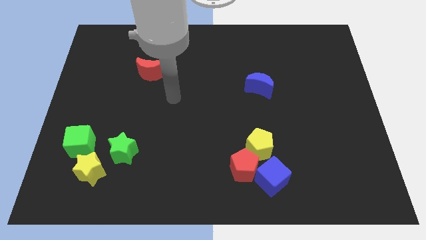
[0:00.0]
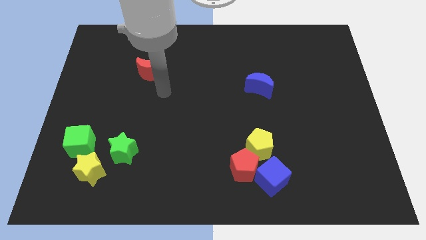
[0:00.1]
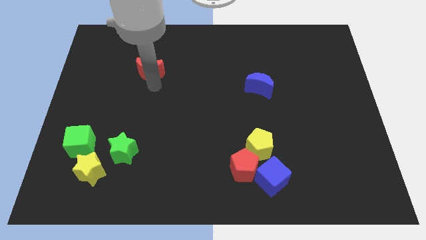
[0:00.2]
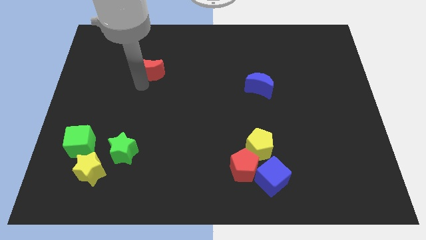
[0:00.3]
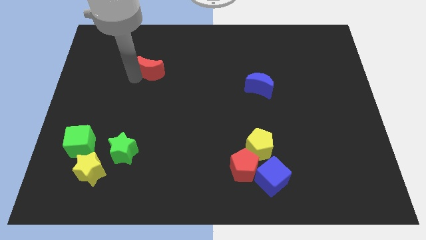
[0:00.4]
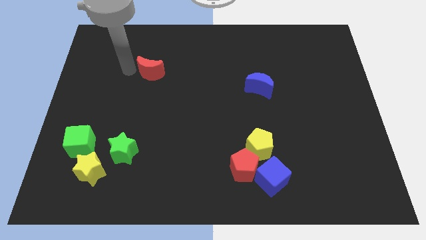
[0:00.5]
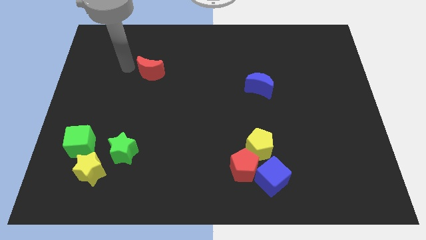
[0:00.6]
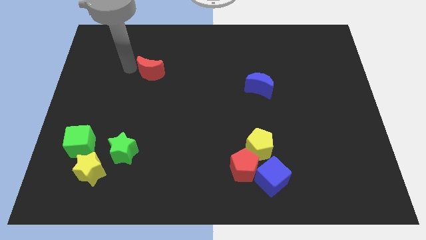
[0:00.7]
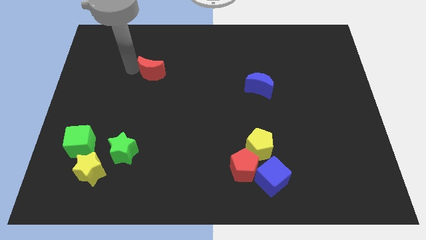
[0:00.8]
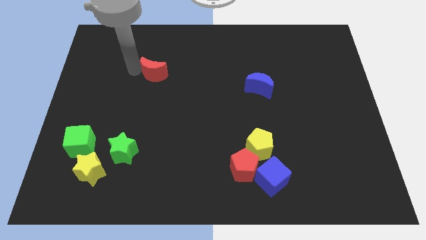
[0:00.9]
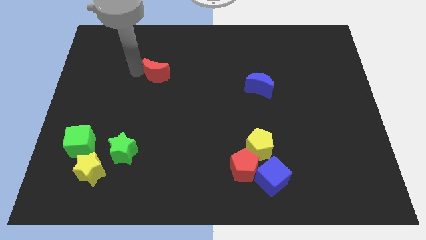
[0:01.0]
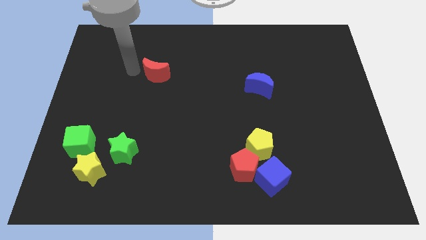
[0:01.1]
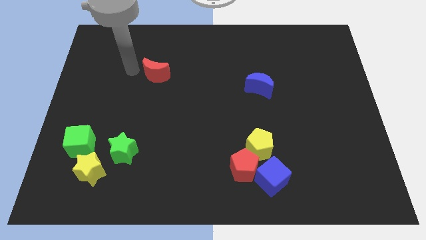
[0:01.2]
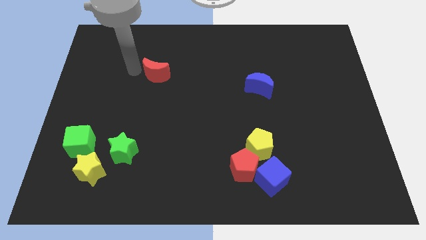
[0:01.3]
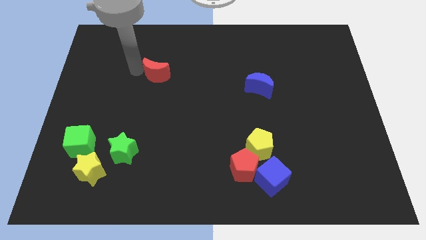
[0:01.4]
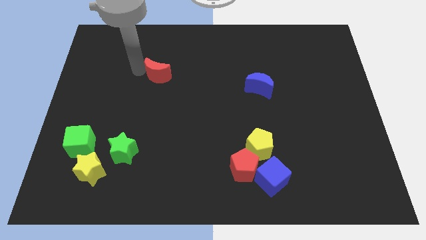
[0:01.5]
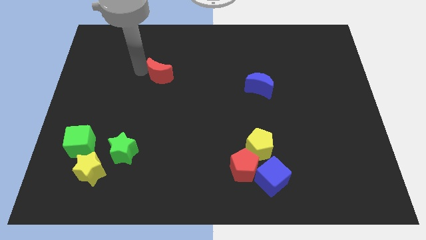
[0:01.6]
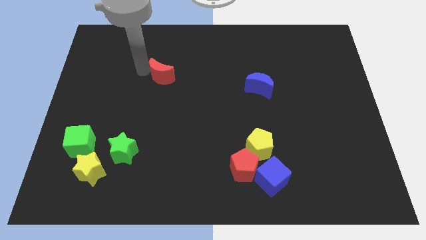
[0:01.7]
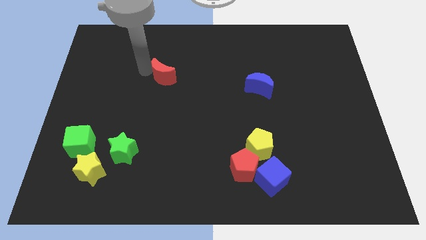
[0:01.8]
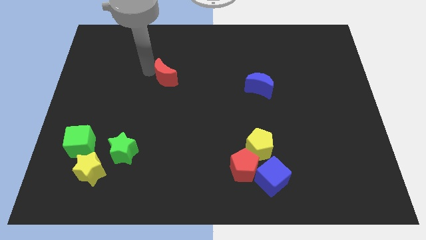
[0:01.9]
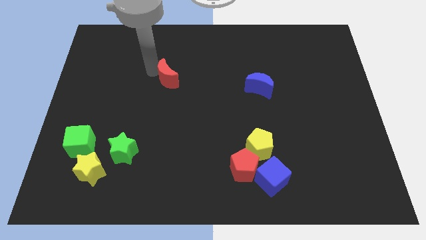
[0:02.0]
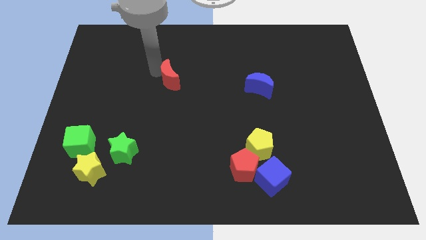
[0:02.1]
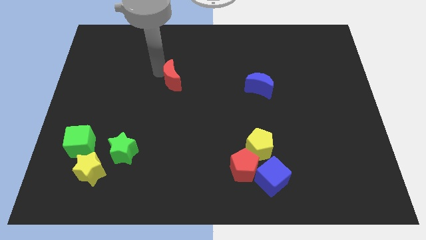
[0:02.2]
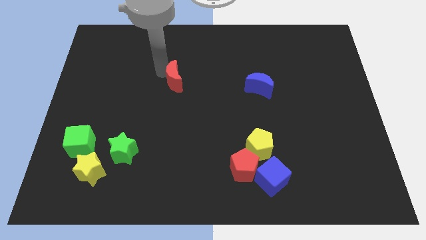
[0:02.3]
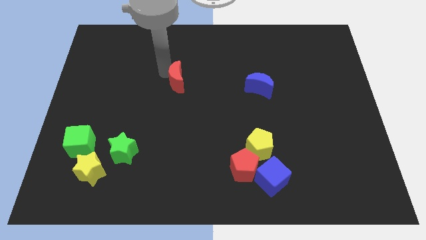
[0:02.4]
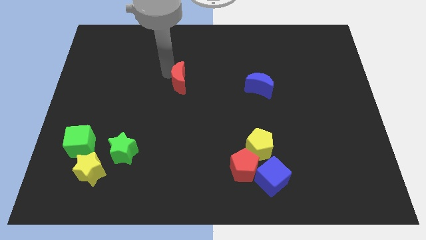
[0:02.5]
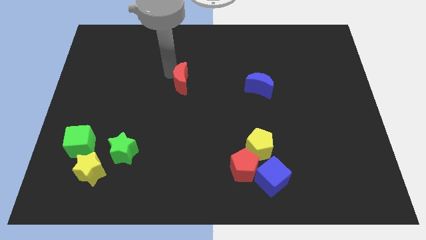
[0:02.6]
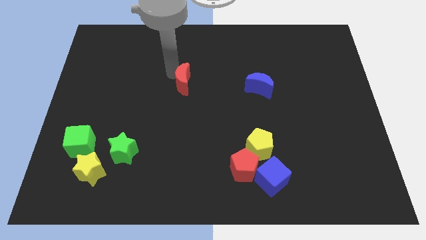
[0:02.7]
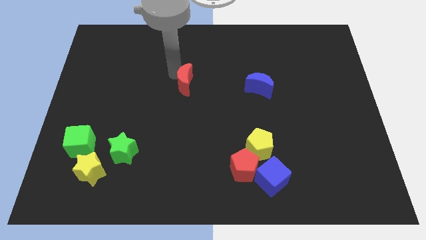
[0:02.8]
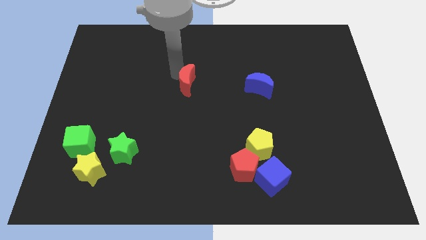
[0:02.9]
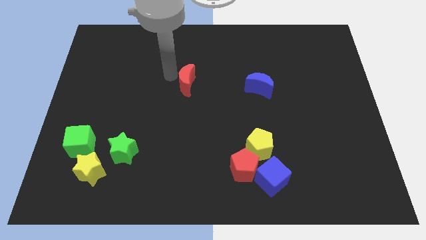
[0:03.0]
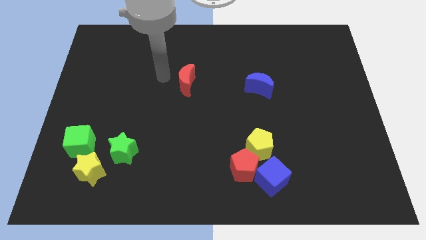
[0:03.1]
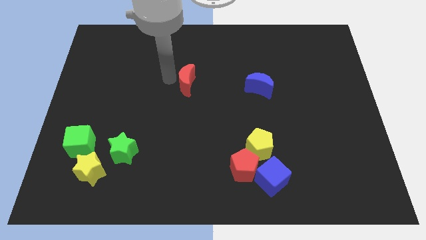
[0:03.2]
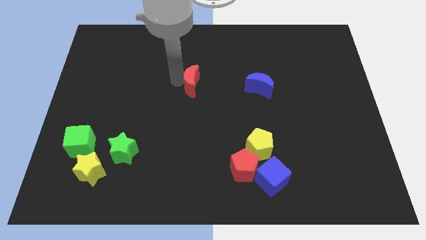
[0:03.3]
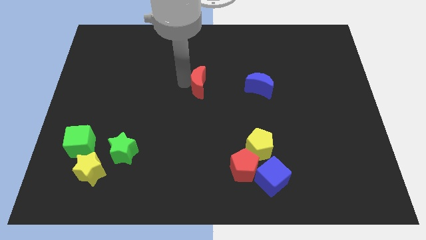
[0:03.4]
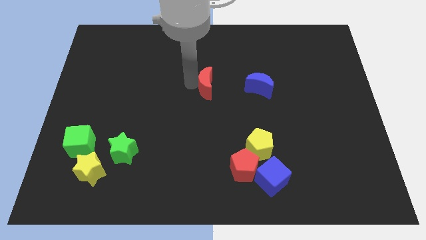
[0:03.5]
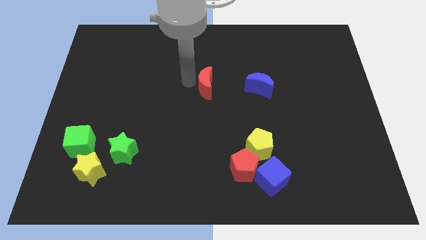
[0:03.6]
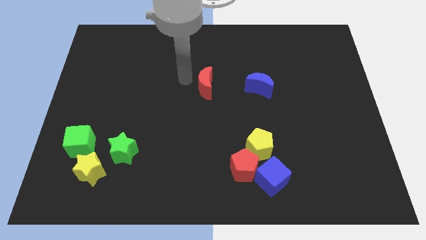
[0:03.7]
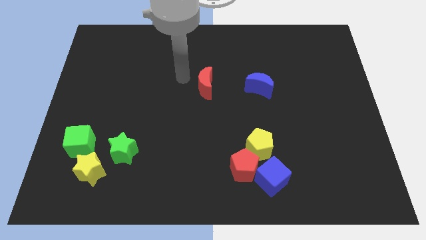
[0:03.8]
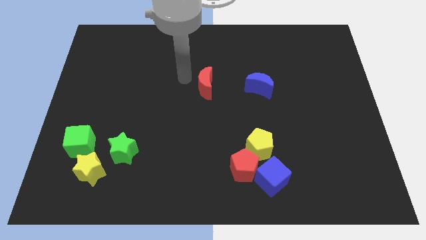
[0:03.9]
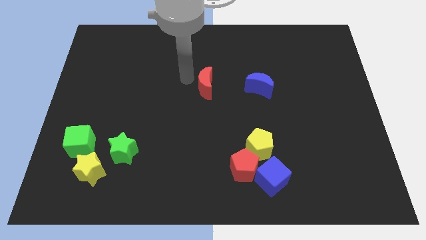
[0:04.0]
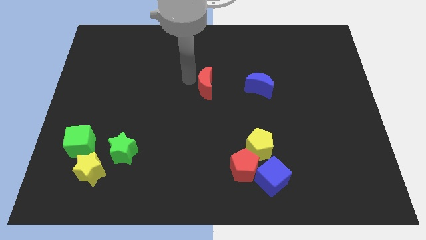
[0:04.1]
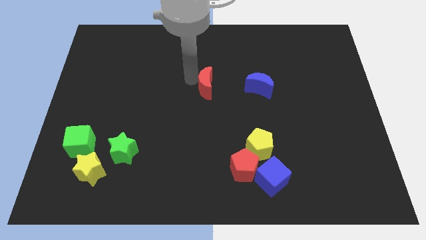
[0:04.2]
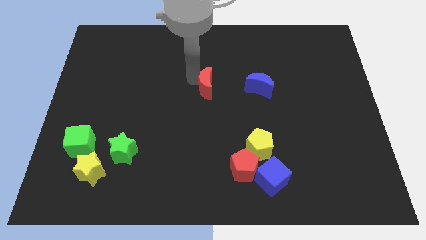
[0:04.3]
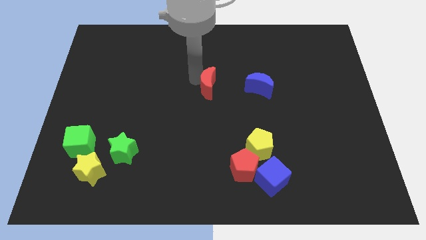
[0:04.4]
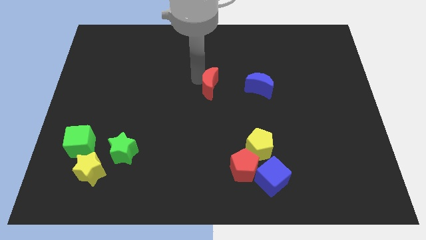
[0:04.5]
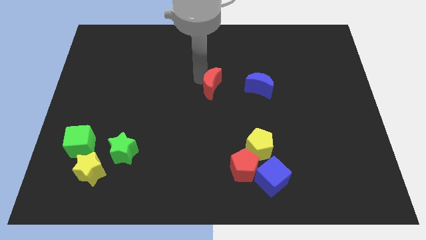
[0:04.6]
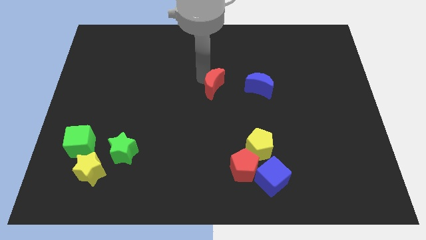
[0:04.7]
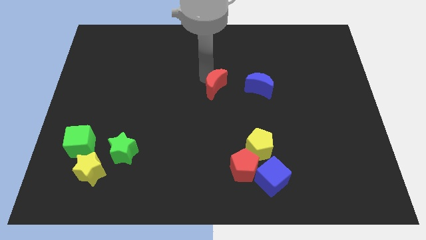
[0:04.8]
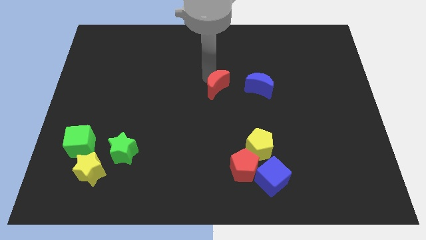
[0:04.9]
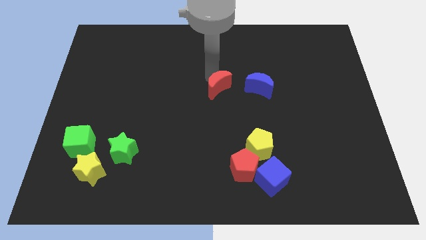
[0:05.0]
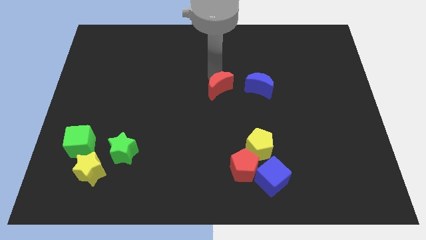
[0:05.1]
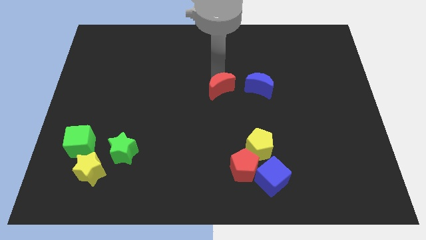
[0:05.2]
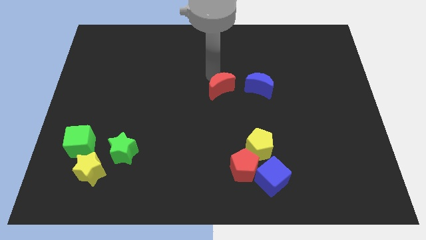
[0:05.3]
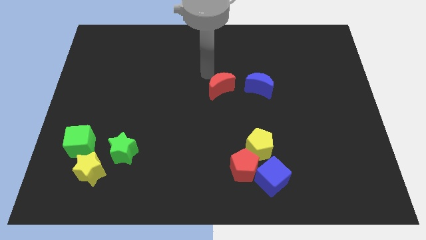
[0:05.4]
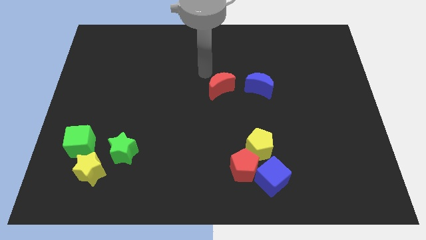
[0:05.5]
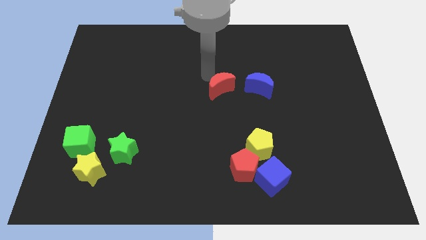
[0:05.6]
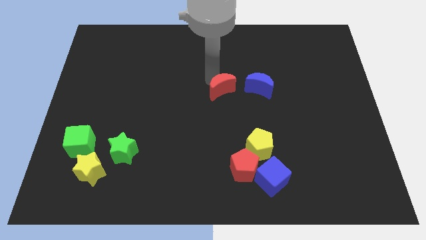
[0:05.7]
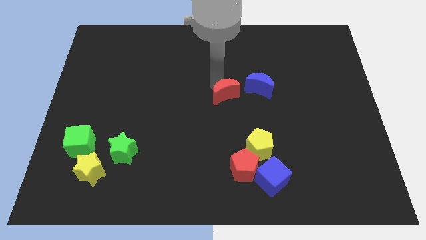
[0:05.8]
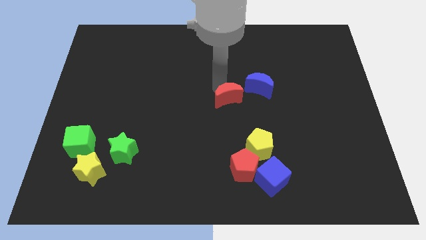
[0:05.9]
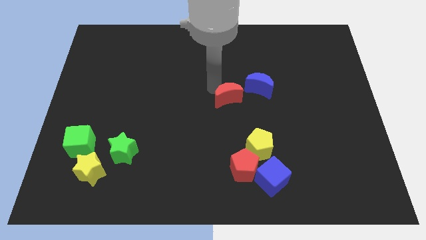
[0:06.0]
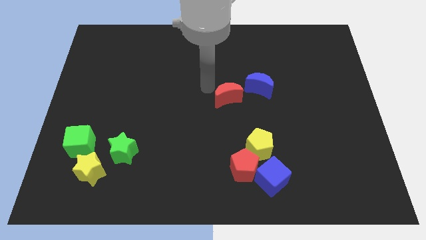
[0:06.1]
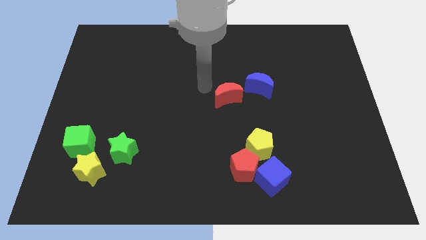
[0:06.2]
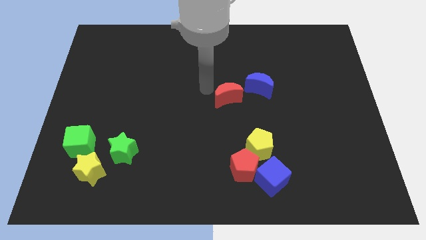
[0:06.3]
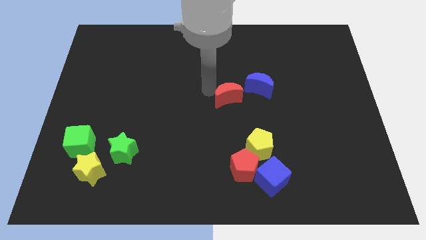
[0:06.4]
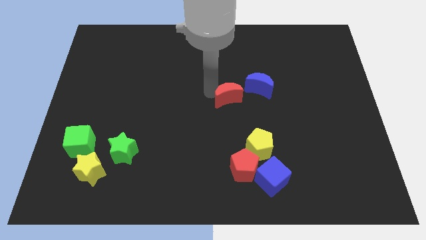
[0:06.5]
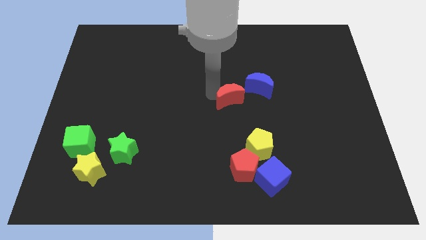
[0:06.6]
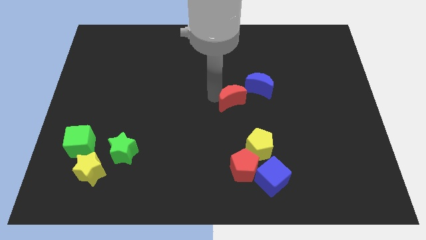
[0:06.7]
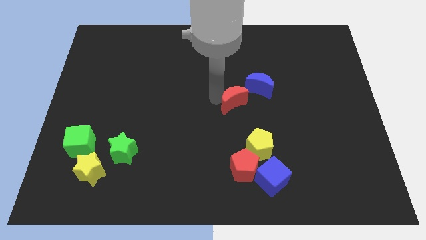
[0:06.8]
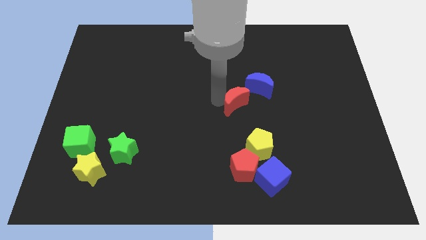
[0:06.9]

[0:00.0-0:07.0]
put the red moon above the yellow pentagon
